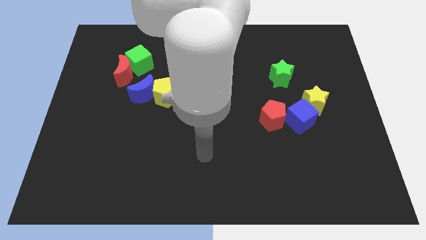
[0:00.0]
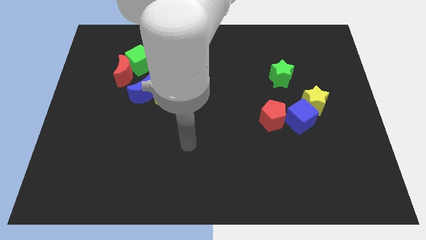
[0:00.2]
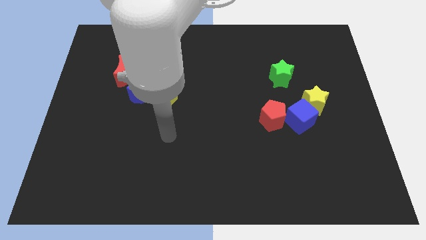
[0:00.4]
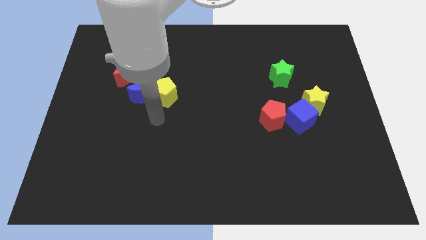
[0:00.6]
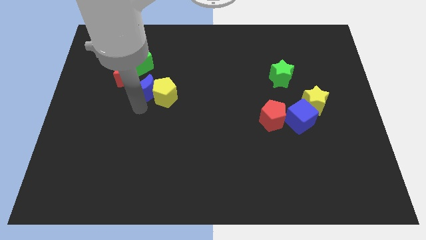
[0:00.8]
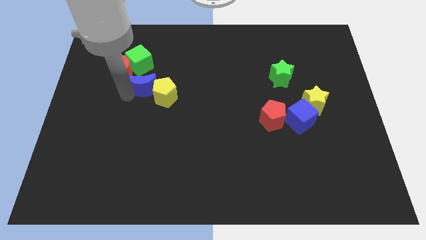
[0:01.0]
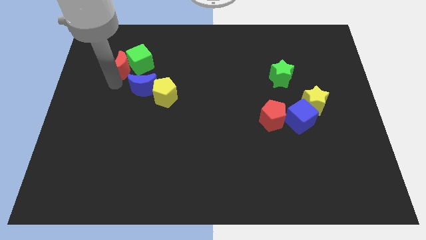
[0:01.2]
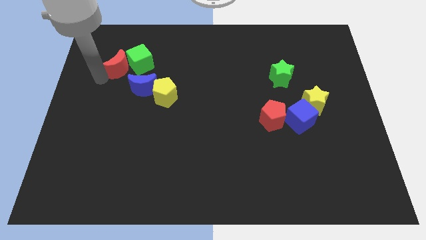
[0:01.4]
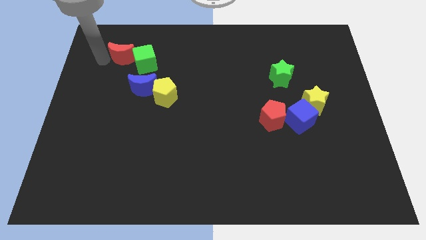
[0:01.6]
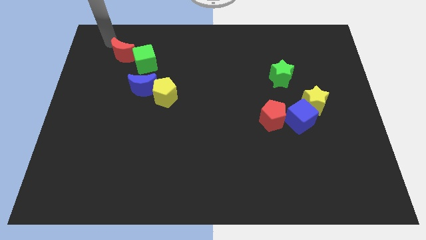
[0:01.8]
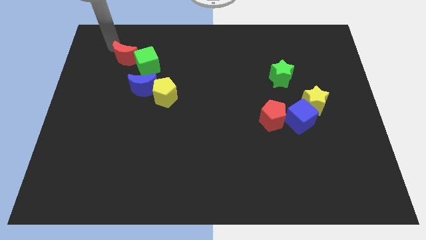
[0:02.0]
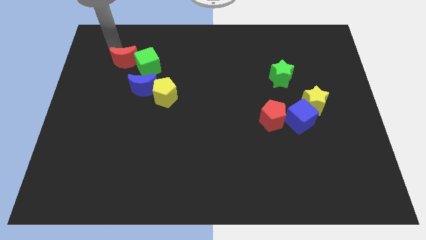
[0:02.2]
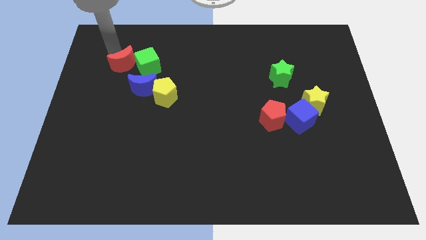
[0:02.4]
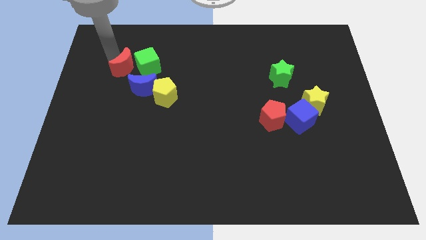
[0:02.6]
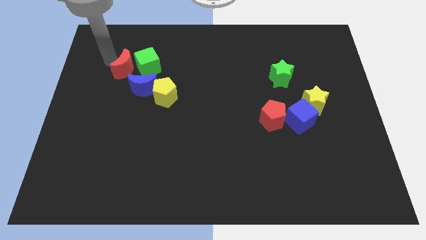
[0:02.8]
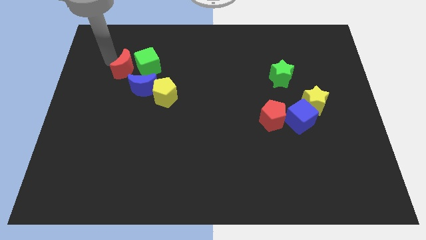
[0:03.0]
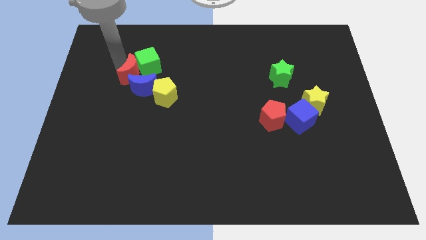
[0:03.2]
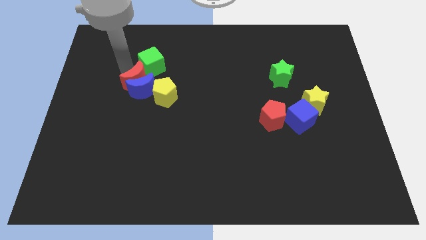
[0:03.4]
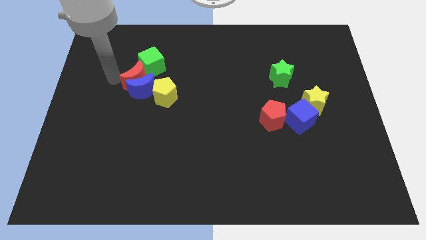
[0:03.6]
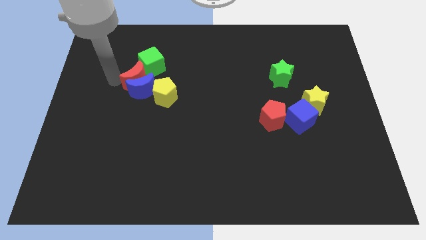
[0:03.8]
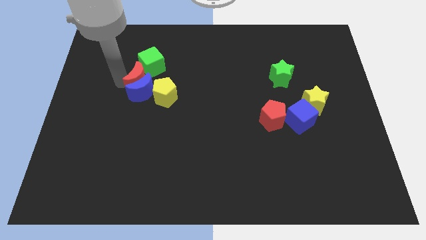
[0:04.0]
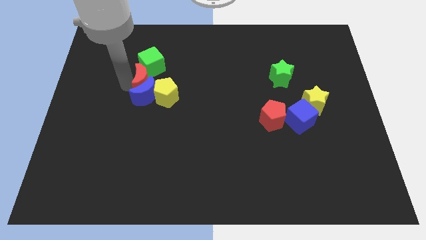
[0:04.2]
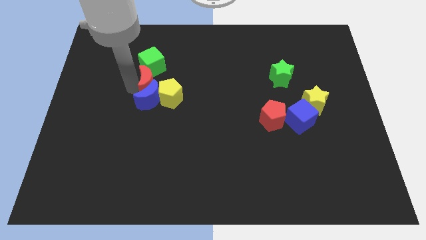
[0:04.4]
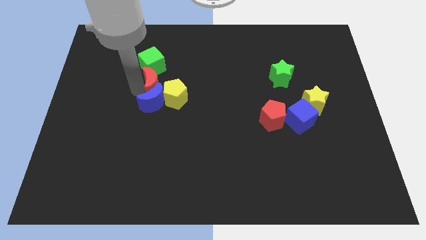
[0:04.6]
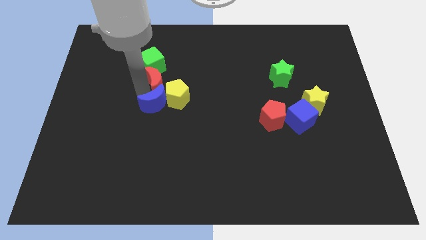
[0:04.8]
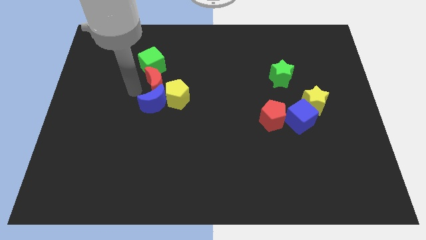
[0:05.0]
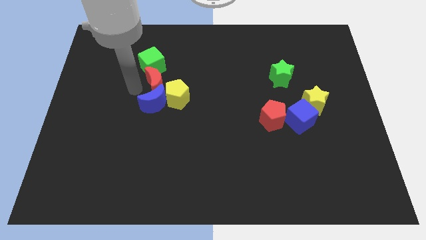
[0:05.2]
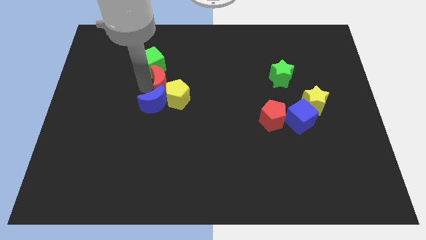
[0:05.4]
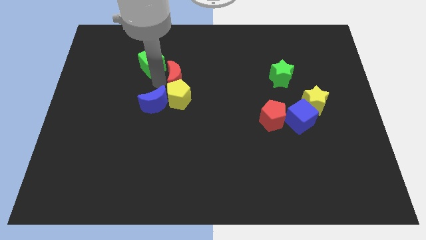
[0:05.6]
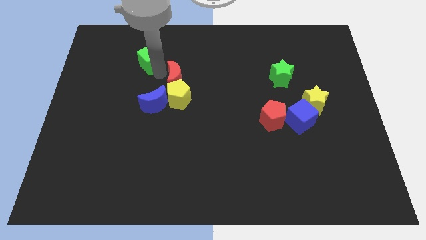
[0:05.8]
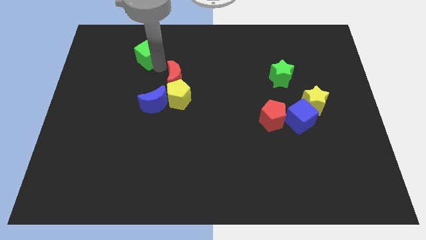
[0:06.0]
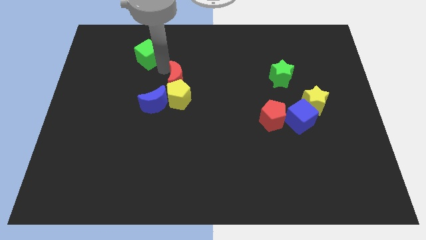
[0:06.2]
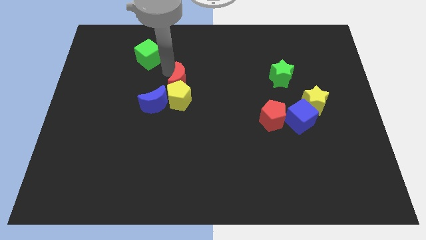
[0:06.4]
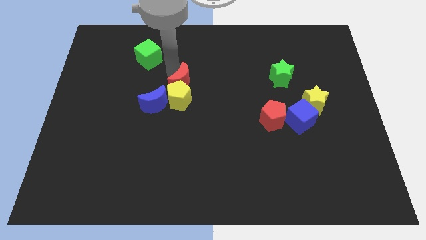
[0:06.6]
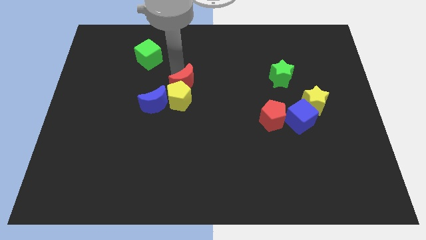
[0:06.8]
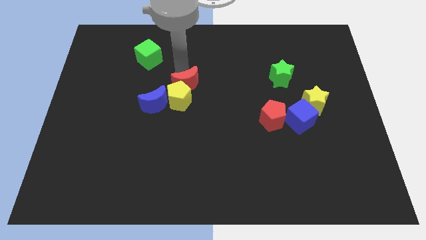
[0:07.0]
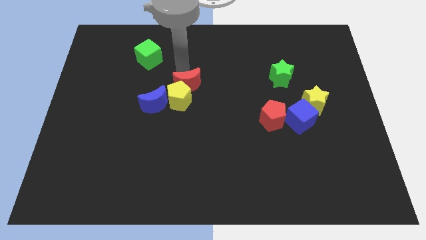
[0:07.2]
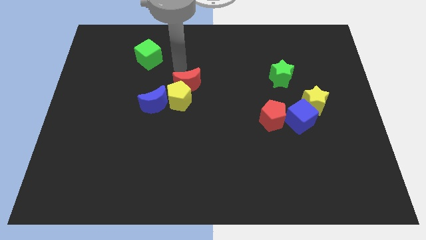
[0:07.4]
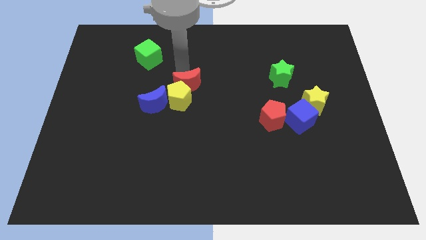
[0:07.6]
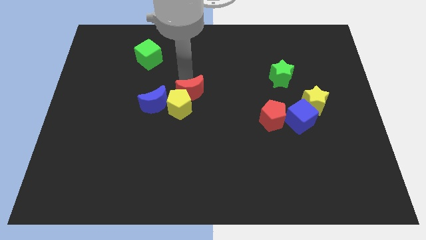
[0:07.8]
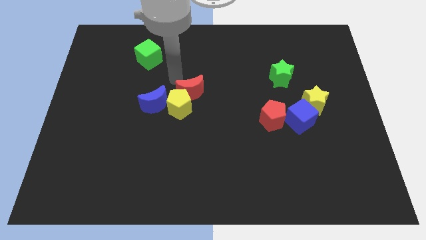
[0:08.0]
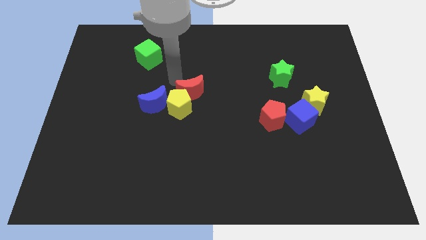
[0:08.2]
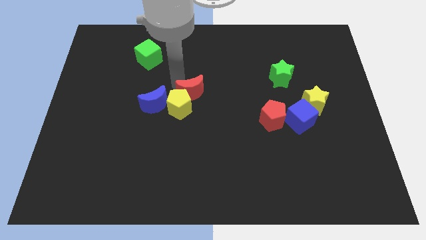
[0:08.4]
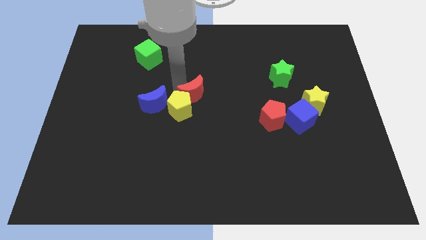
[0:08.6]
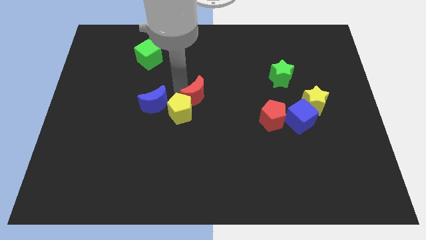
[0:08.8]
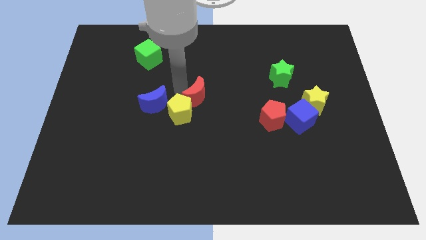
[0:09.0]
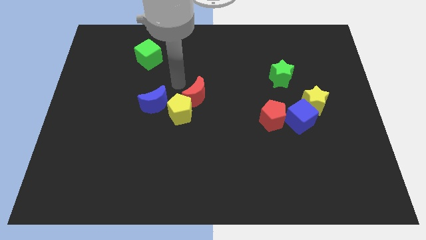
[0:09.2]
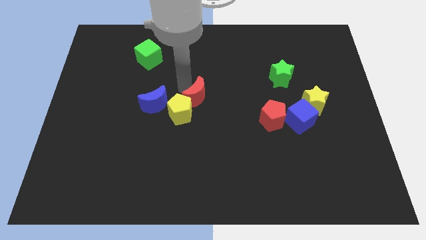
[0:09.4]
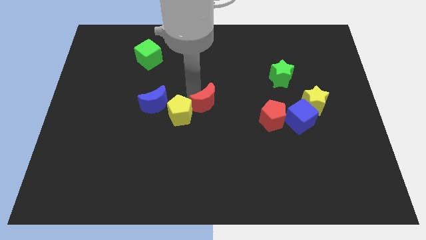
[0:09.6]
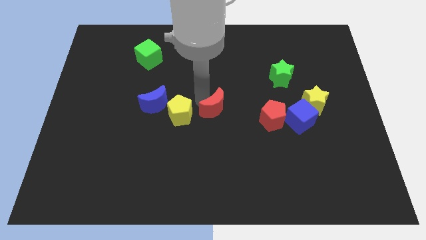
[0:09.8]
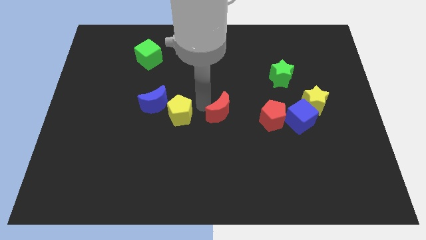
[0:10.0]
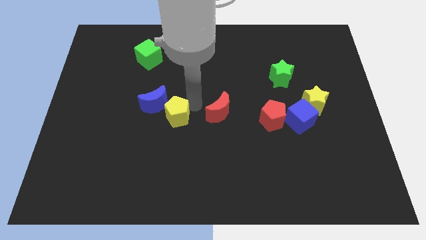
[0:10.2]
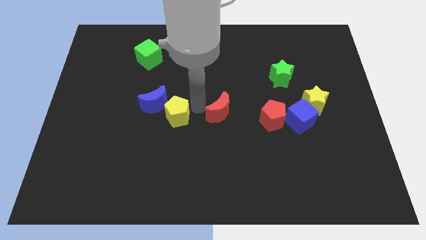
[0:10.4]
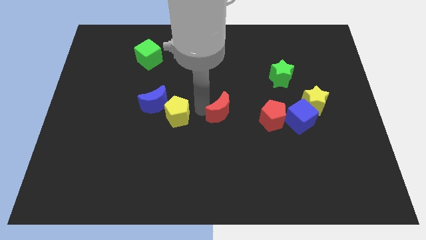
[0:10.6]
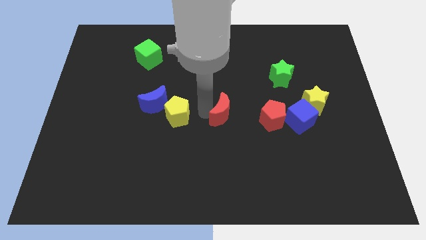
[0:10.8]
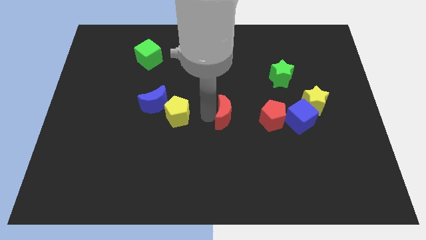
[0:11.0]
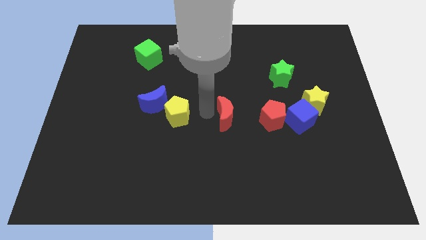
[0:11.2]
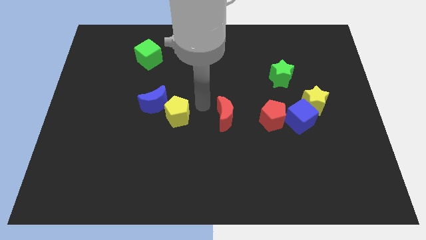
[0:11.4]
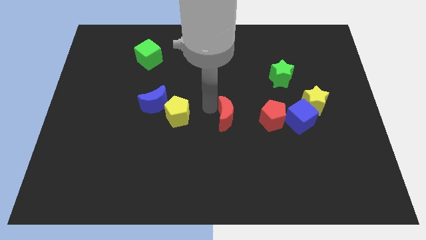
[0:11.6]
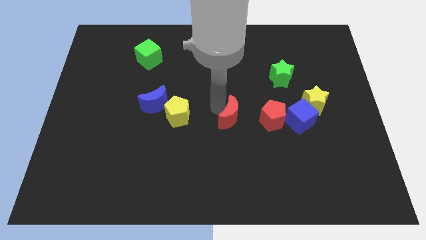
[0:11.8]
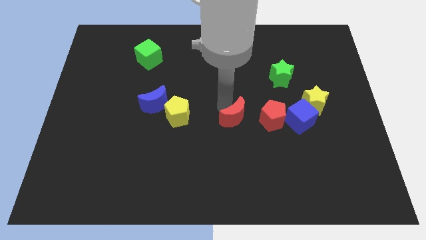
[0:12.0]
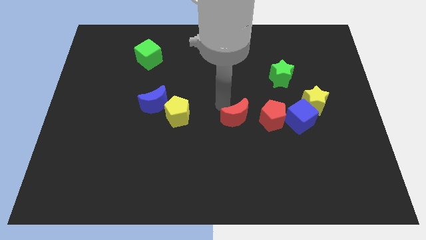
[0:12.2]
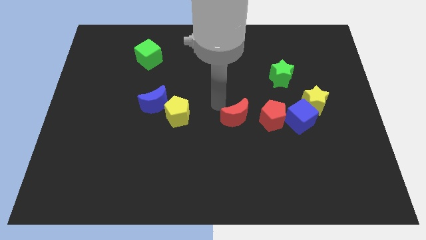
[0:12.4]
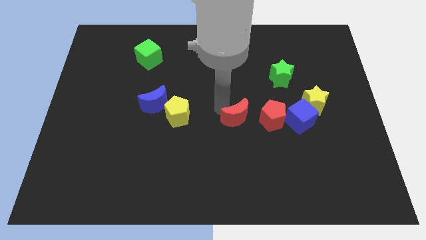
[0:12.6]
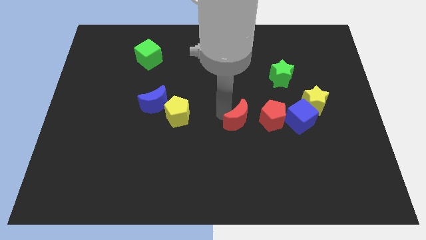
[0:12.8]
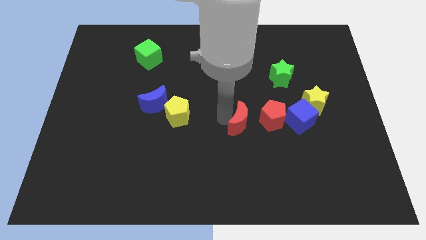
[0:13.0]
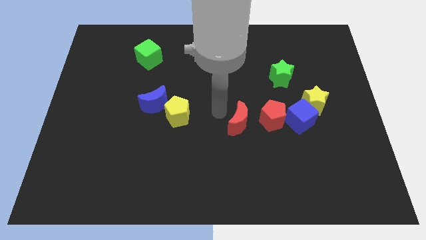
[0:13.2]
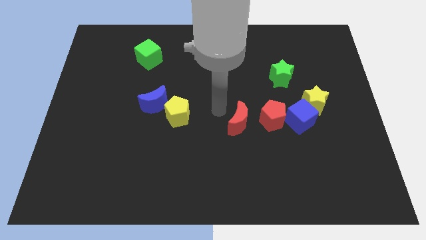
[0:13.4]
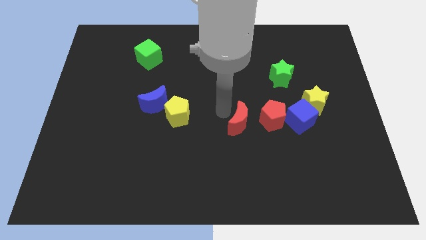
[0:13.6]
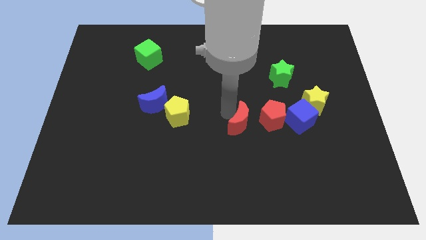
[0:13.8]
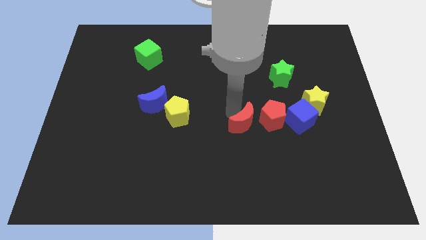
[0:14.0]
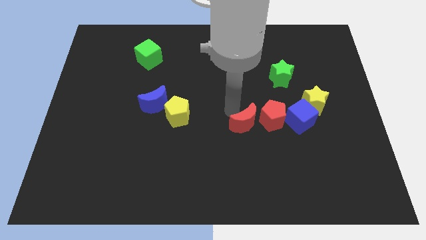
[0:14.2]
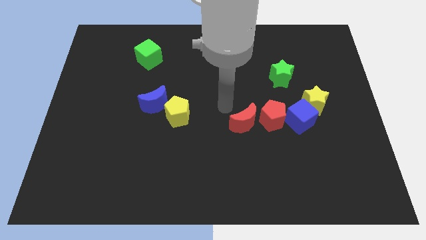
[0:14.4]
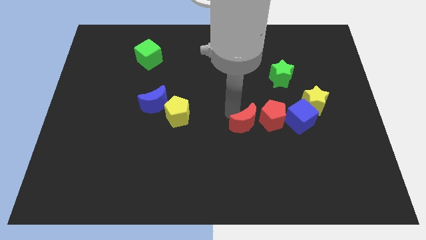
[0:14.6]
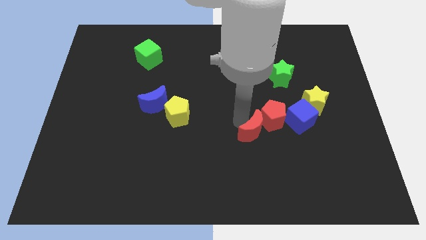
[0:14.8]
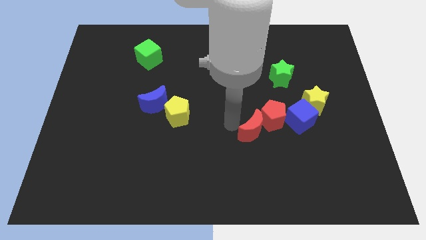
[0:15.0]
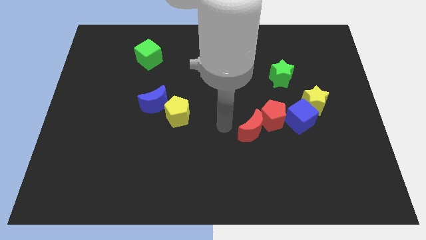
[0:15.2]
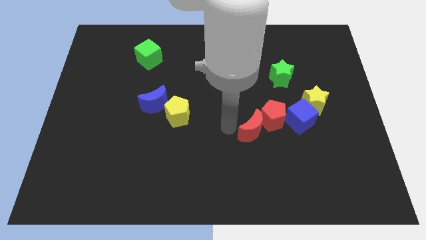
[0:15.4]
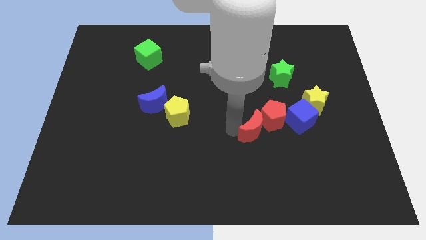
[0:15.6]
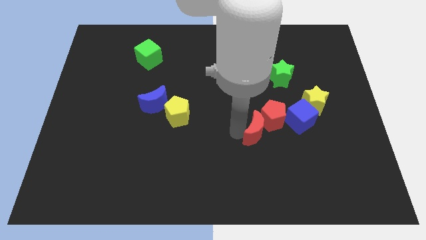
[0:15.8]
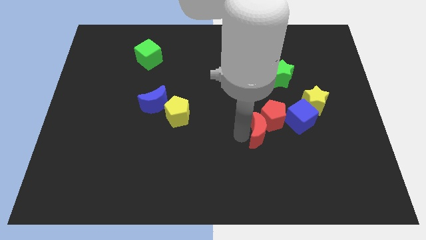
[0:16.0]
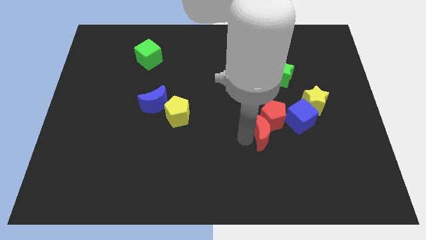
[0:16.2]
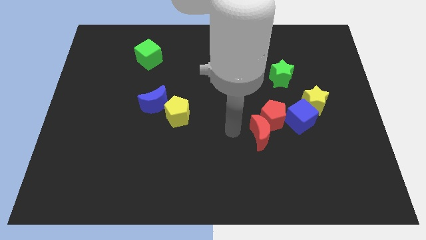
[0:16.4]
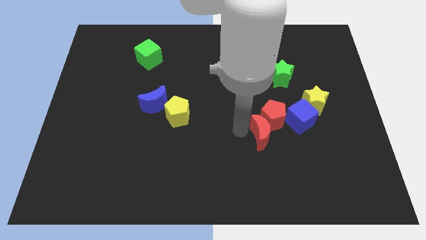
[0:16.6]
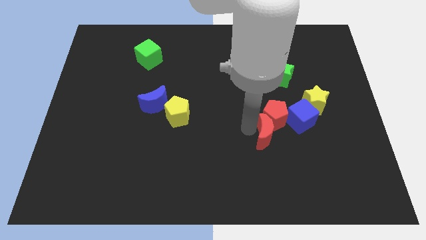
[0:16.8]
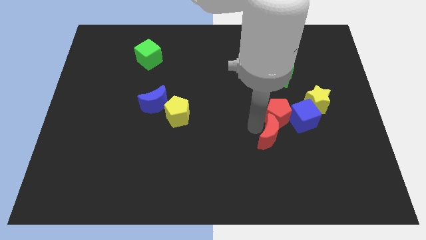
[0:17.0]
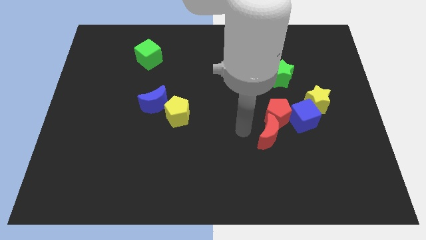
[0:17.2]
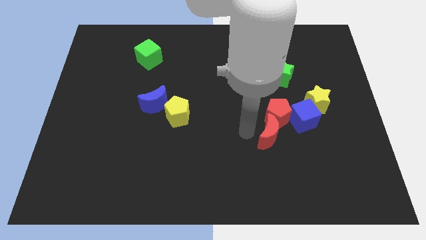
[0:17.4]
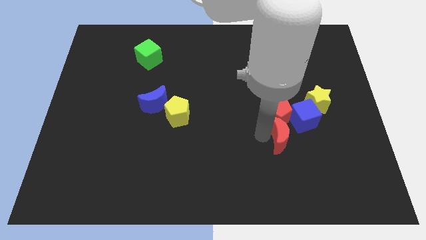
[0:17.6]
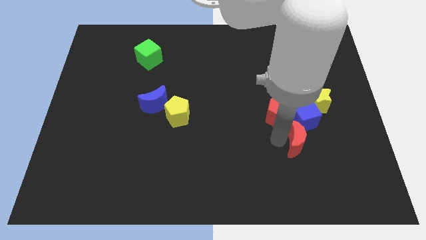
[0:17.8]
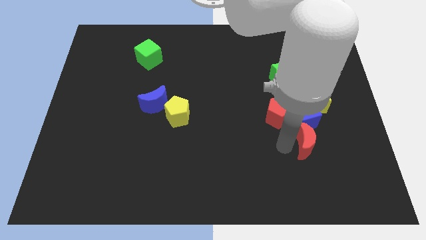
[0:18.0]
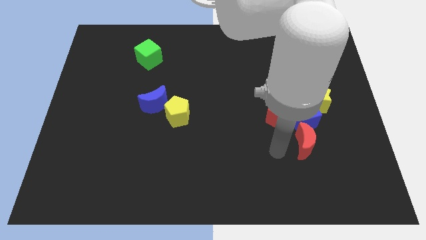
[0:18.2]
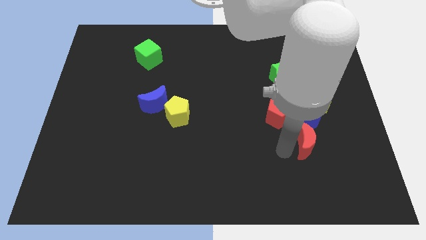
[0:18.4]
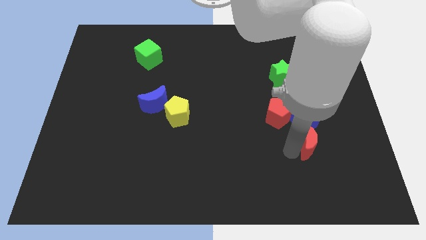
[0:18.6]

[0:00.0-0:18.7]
push the red moon to the bottom right of the blue cube
